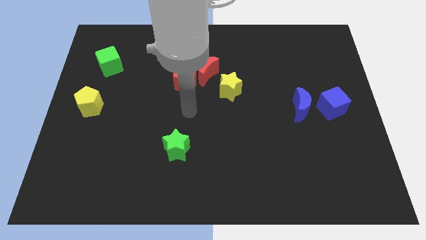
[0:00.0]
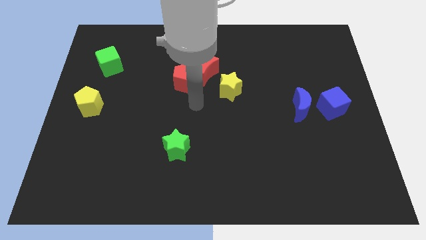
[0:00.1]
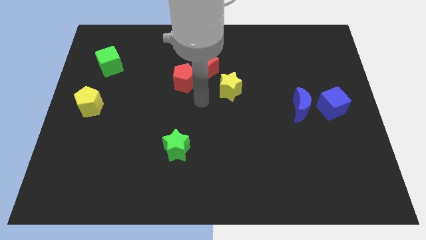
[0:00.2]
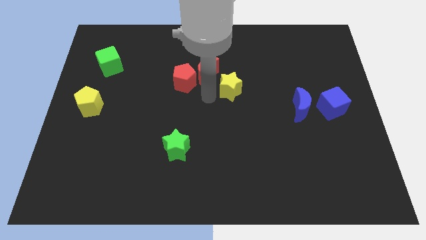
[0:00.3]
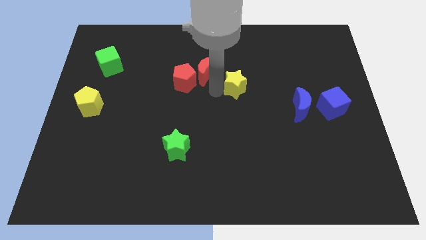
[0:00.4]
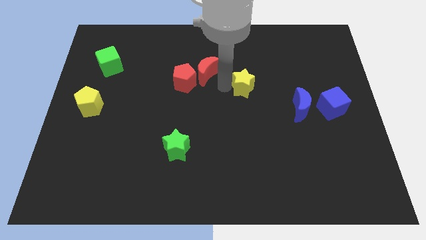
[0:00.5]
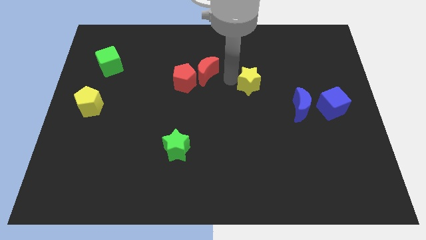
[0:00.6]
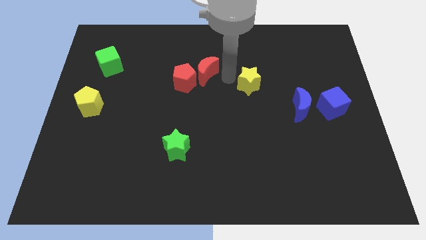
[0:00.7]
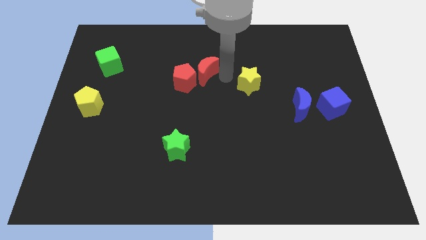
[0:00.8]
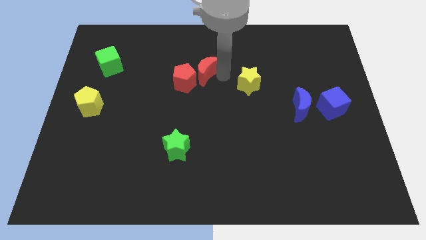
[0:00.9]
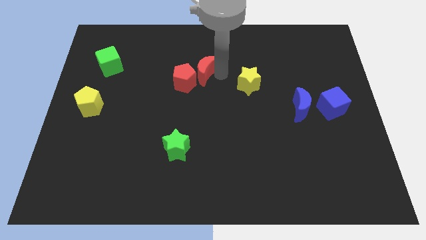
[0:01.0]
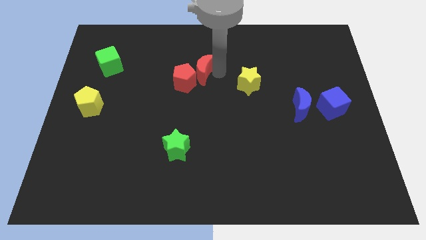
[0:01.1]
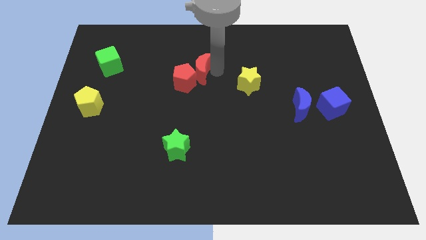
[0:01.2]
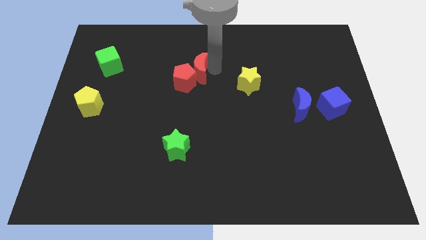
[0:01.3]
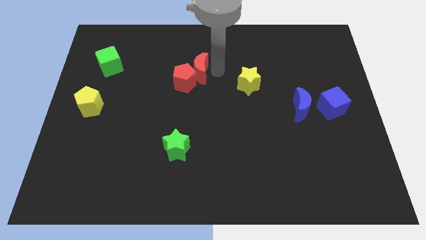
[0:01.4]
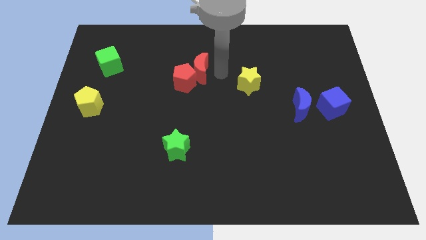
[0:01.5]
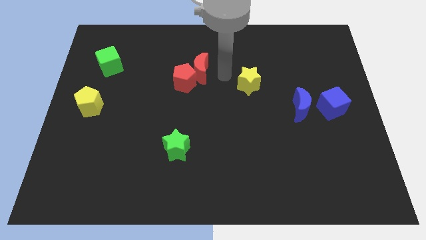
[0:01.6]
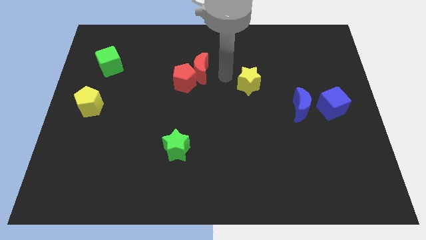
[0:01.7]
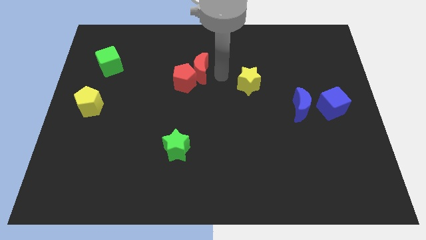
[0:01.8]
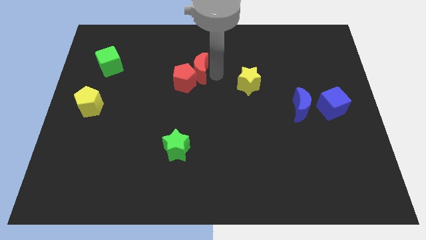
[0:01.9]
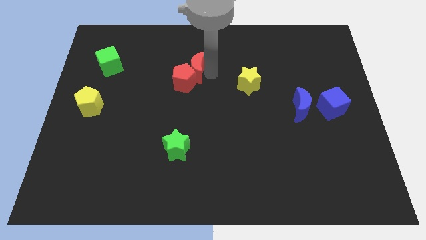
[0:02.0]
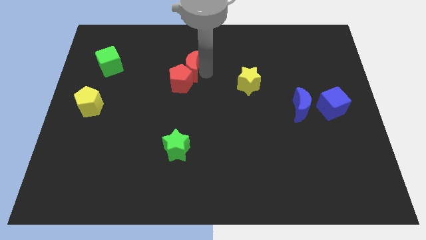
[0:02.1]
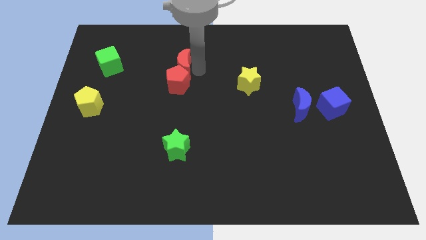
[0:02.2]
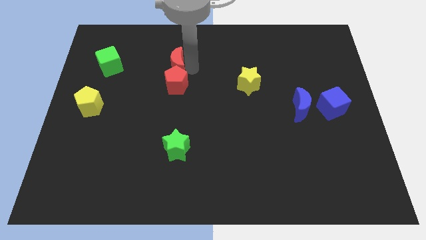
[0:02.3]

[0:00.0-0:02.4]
move the red moon a little left

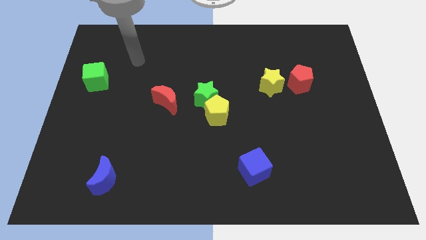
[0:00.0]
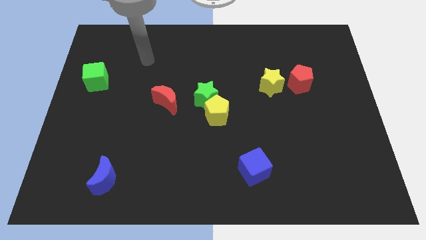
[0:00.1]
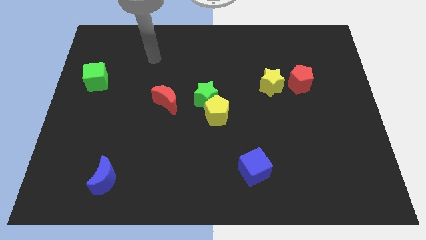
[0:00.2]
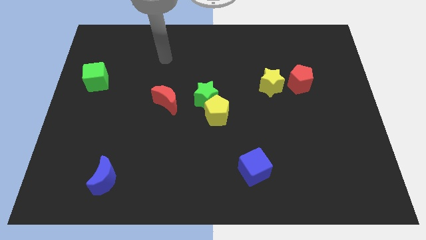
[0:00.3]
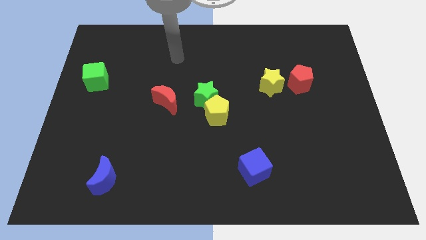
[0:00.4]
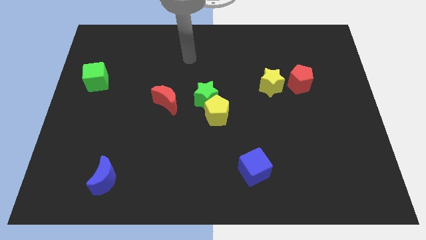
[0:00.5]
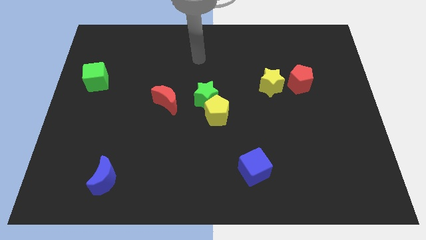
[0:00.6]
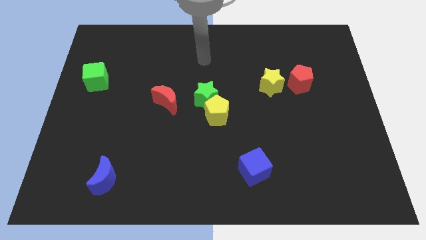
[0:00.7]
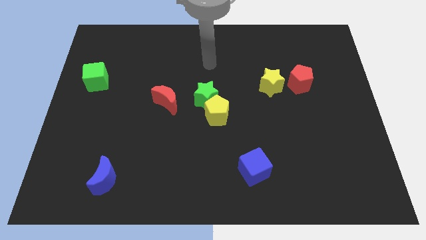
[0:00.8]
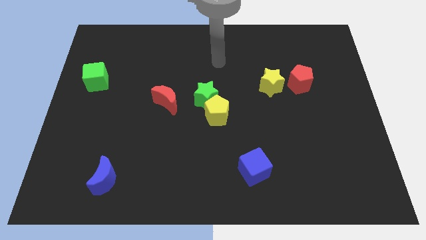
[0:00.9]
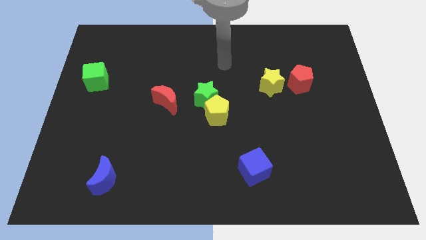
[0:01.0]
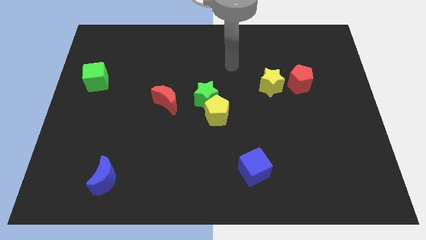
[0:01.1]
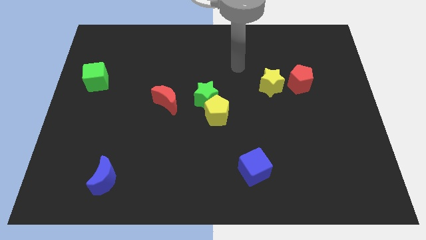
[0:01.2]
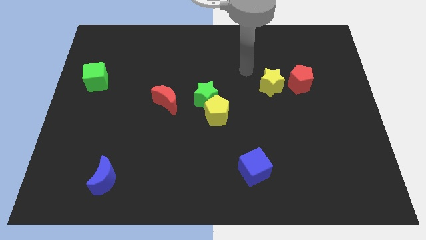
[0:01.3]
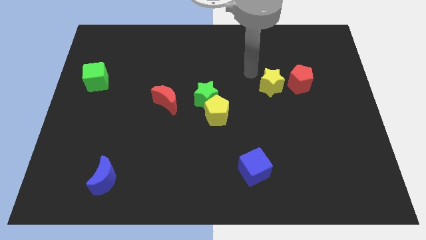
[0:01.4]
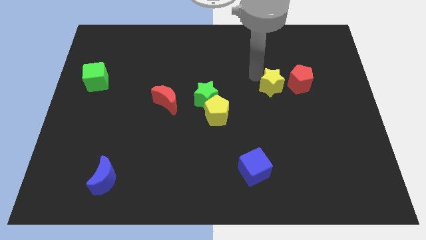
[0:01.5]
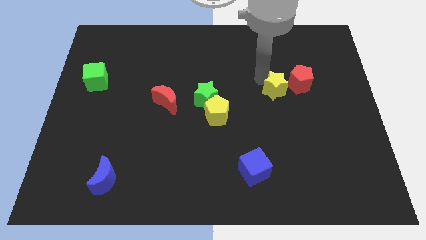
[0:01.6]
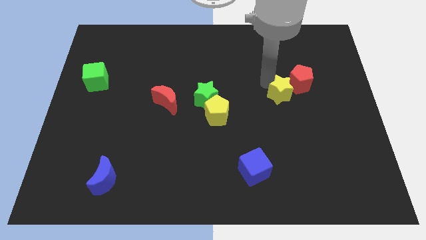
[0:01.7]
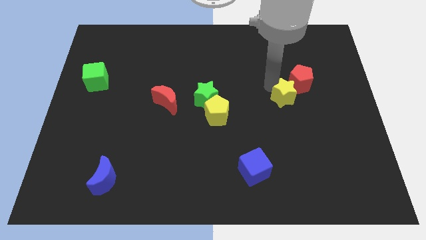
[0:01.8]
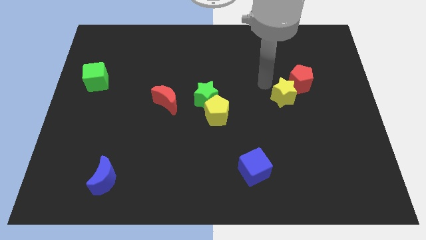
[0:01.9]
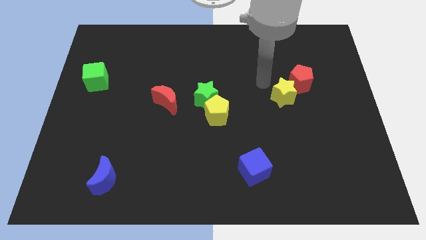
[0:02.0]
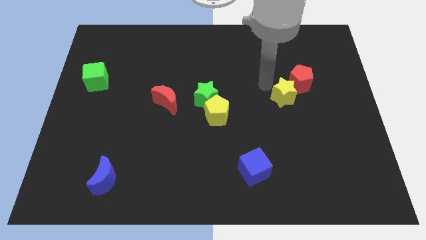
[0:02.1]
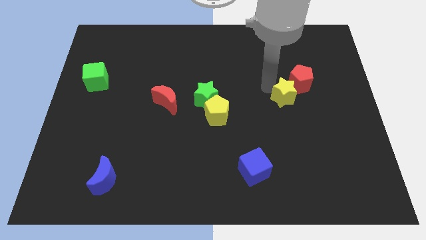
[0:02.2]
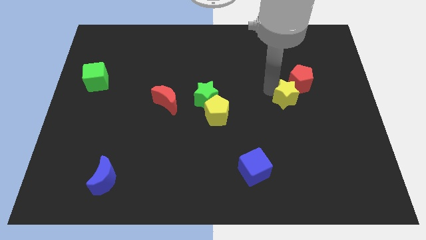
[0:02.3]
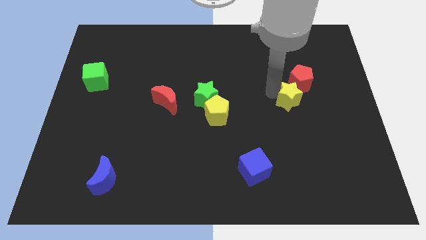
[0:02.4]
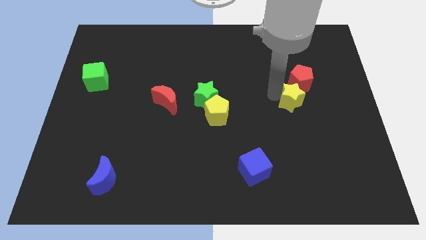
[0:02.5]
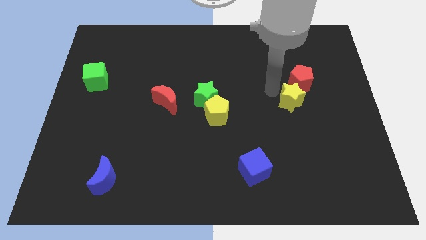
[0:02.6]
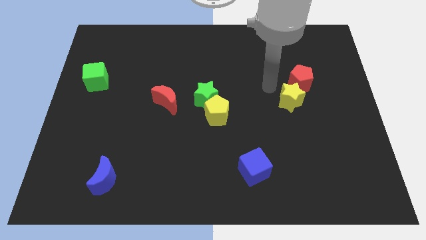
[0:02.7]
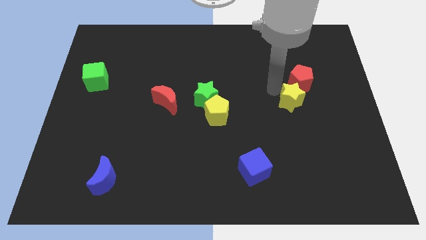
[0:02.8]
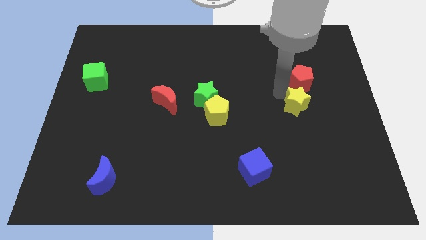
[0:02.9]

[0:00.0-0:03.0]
push the yellow star a little bit downwards and right

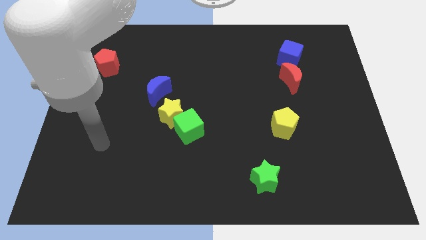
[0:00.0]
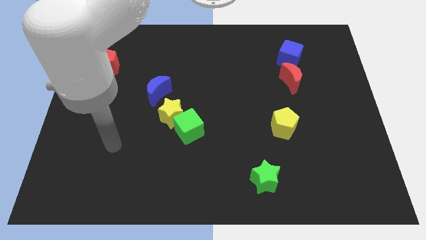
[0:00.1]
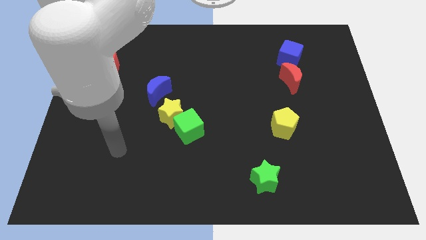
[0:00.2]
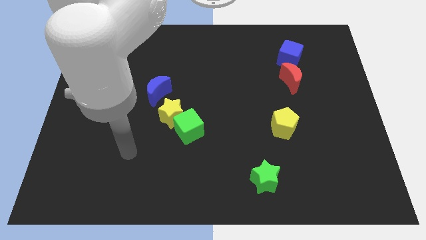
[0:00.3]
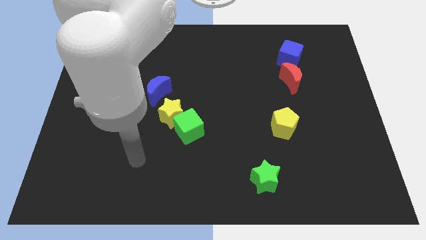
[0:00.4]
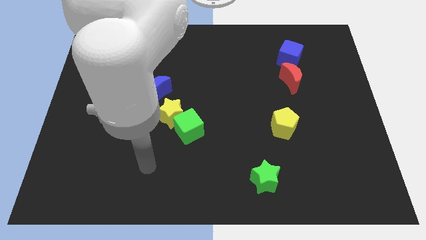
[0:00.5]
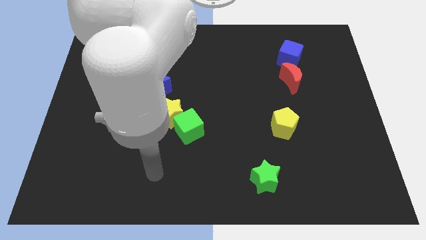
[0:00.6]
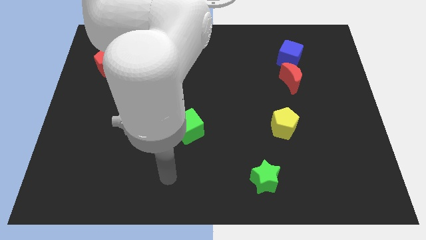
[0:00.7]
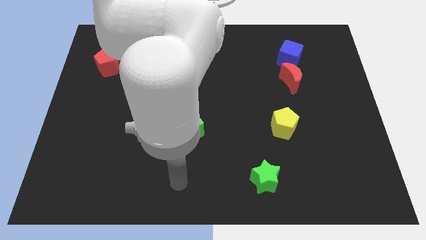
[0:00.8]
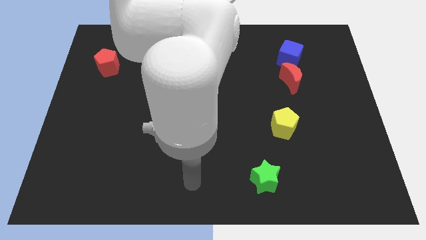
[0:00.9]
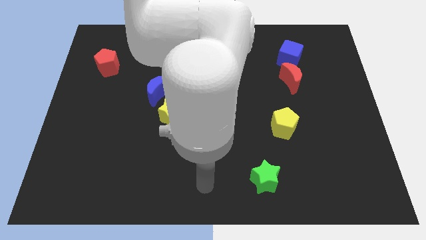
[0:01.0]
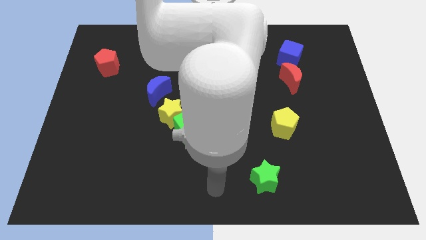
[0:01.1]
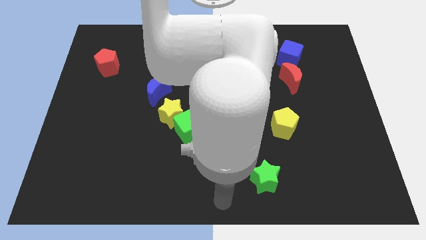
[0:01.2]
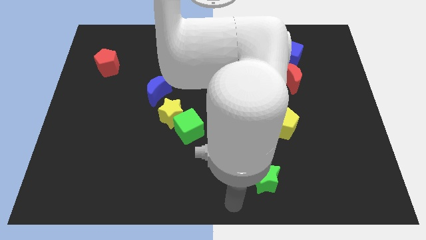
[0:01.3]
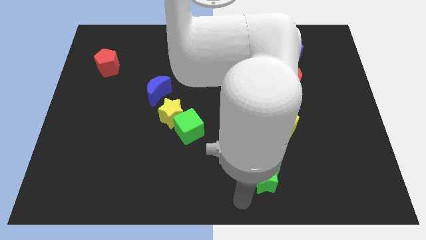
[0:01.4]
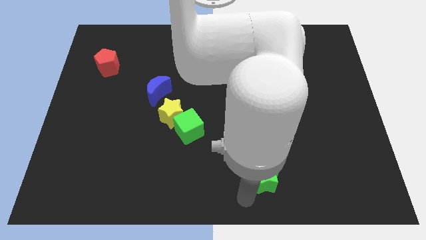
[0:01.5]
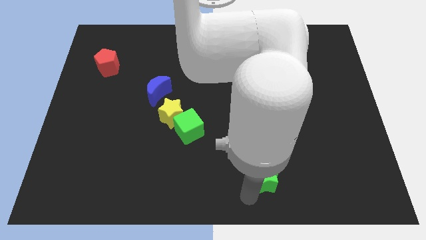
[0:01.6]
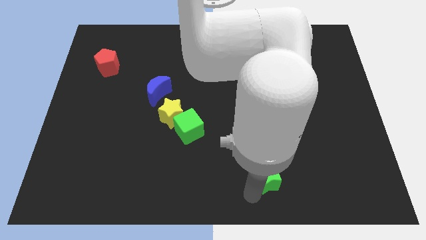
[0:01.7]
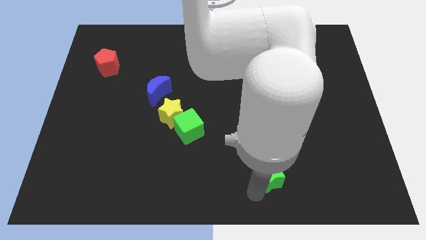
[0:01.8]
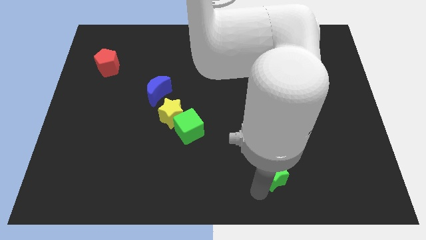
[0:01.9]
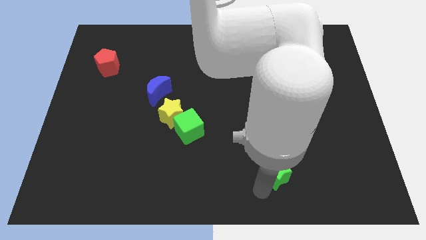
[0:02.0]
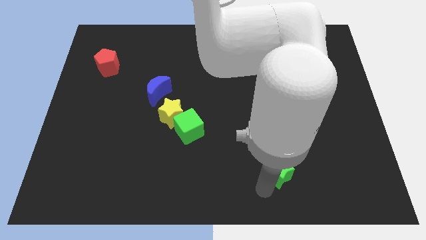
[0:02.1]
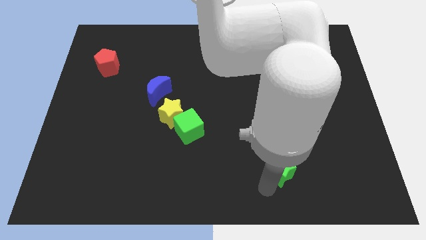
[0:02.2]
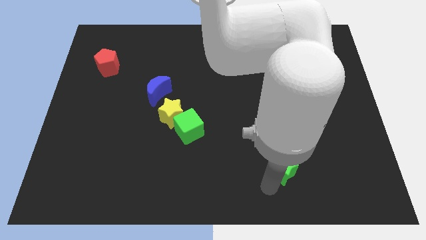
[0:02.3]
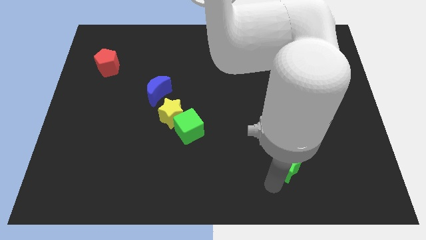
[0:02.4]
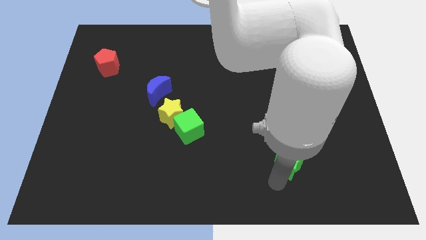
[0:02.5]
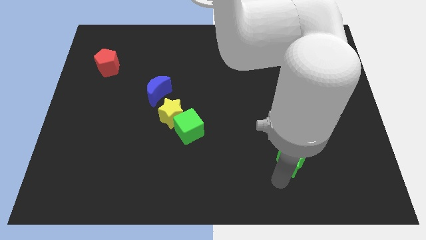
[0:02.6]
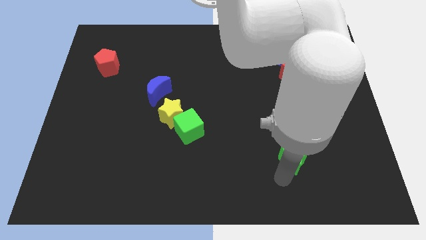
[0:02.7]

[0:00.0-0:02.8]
slightly slide the green star upwards and to the right
